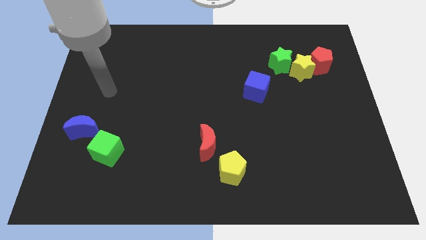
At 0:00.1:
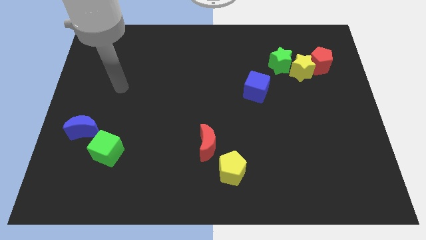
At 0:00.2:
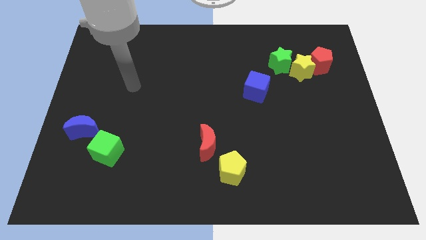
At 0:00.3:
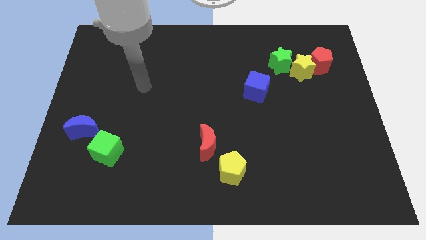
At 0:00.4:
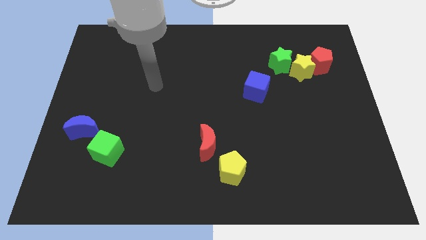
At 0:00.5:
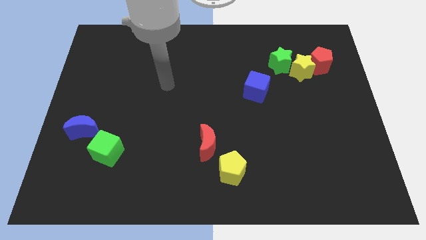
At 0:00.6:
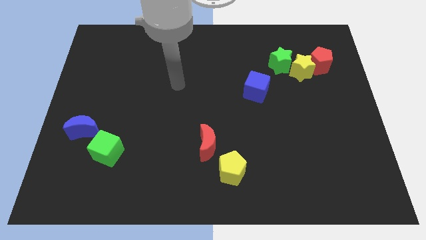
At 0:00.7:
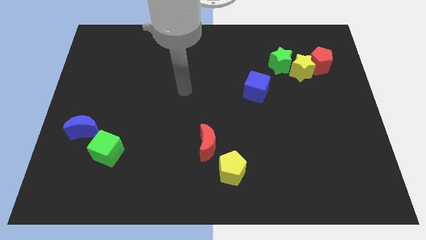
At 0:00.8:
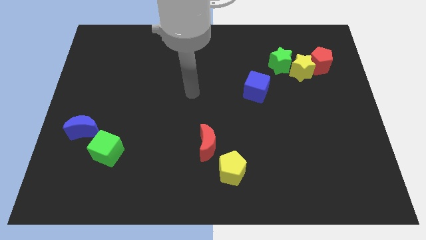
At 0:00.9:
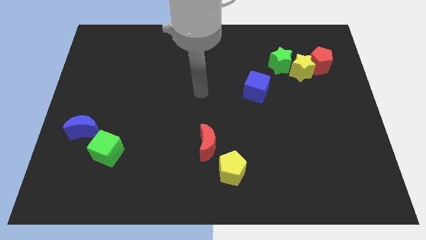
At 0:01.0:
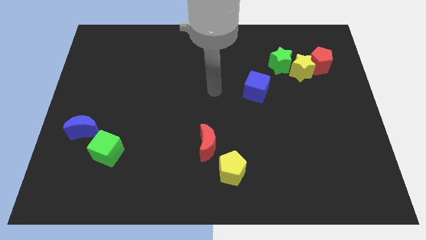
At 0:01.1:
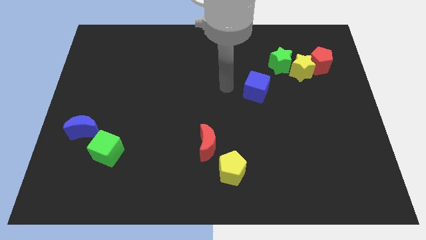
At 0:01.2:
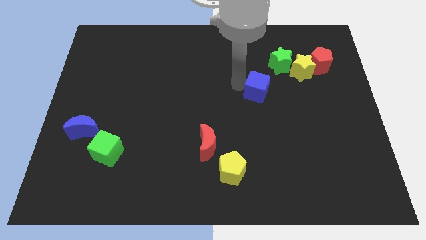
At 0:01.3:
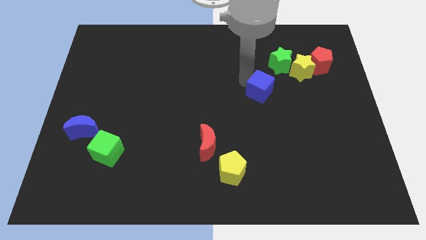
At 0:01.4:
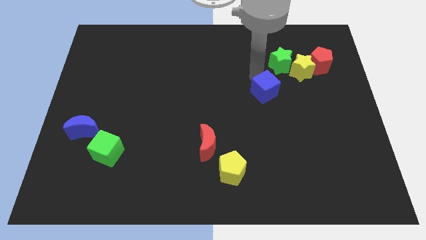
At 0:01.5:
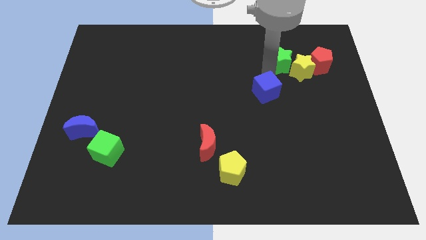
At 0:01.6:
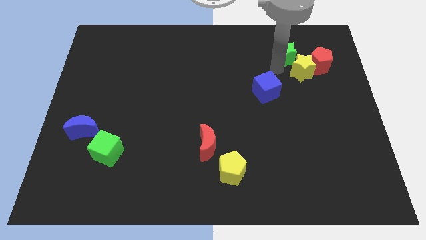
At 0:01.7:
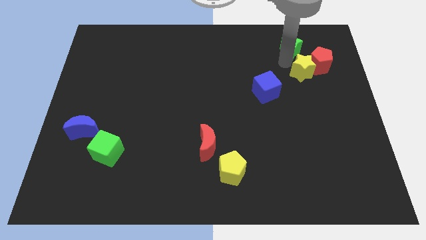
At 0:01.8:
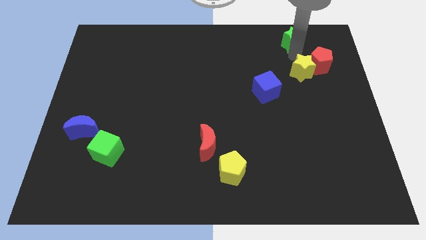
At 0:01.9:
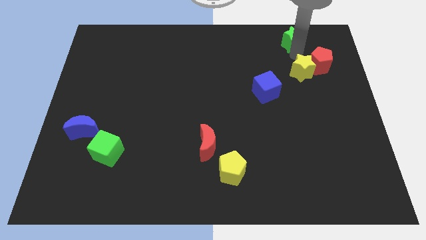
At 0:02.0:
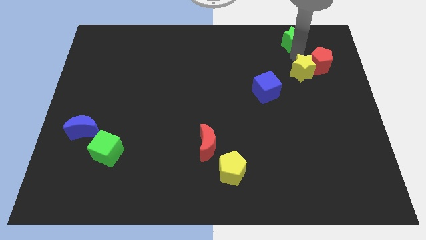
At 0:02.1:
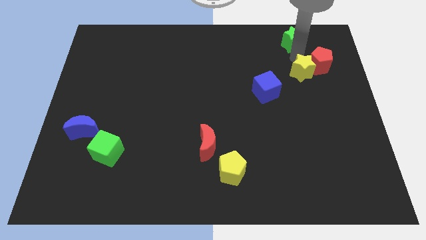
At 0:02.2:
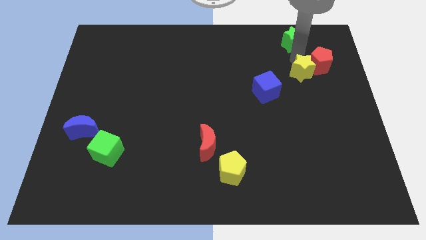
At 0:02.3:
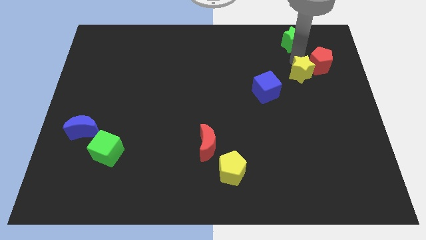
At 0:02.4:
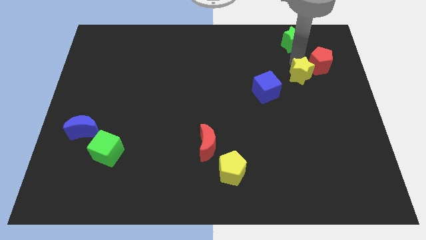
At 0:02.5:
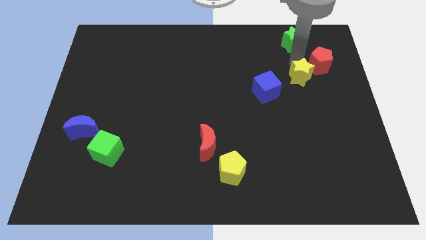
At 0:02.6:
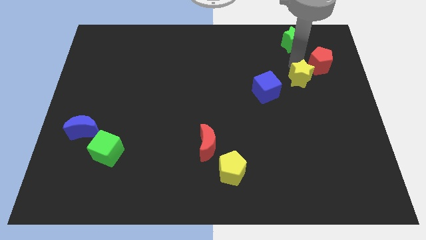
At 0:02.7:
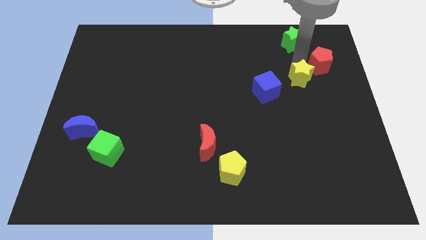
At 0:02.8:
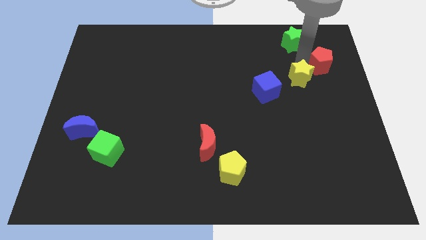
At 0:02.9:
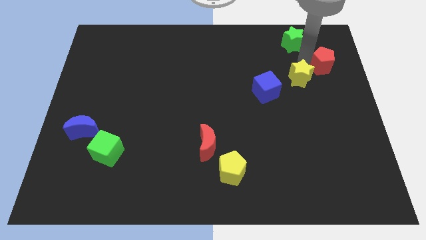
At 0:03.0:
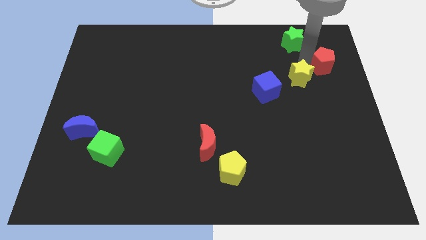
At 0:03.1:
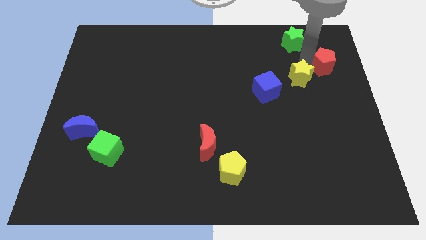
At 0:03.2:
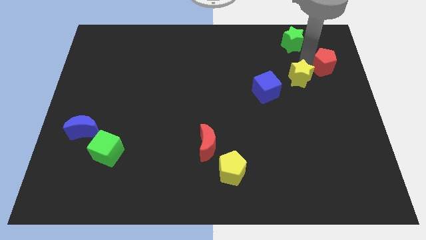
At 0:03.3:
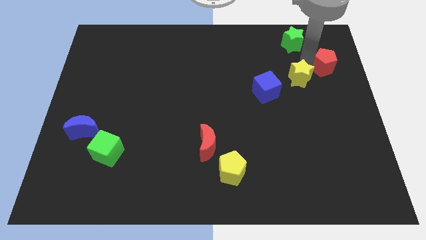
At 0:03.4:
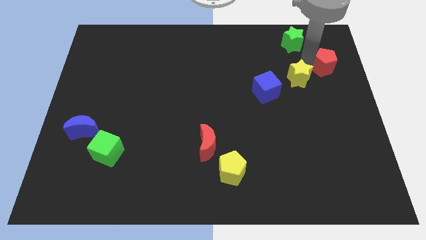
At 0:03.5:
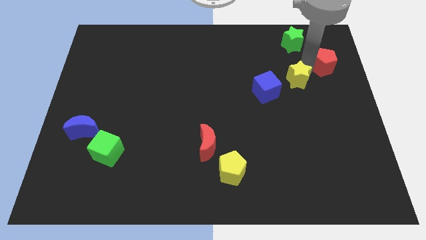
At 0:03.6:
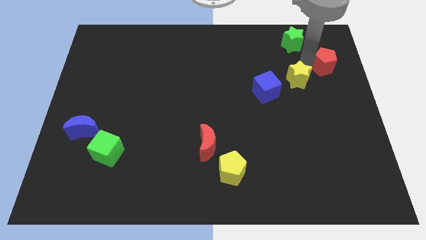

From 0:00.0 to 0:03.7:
separate the yellow star from the red pentagon and green star

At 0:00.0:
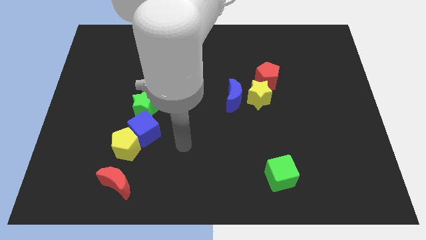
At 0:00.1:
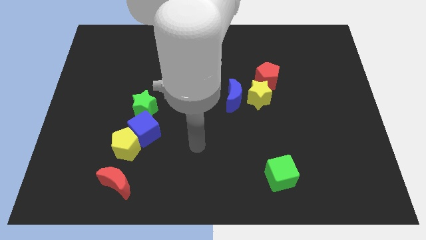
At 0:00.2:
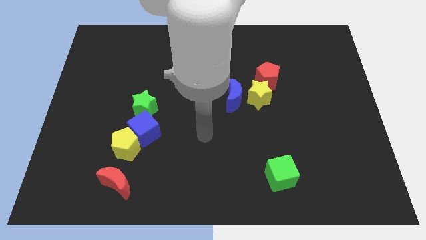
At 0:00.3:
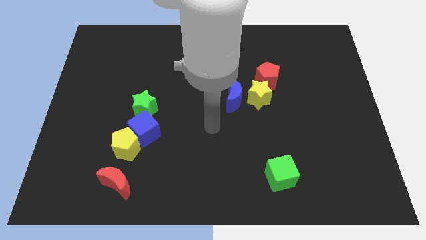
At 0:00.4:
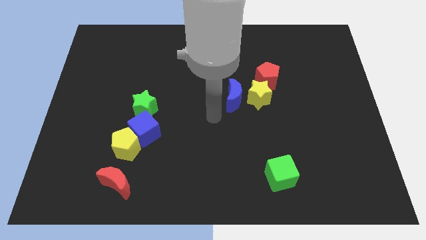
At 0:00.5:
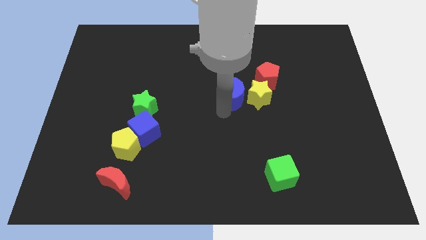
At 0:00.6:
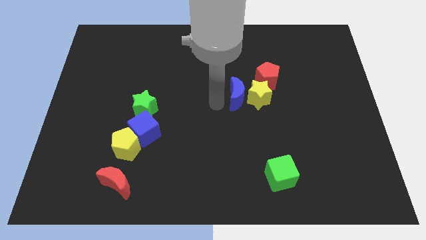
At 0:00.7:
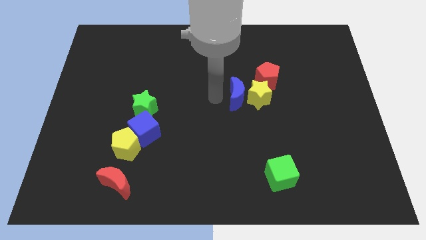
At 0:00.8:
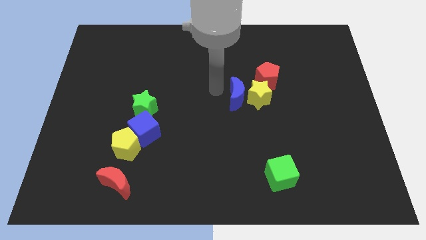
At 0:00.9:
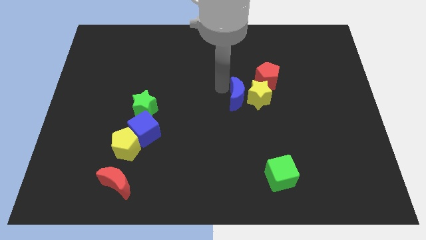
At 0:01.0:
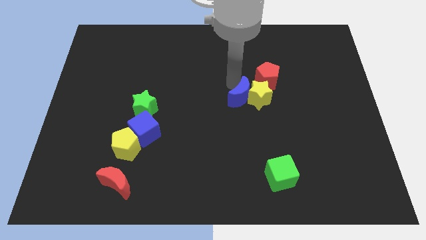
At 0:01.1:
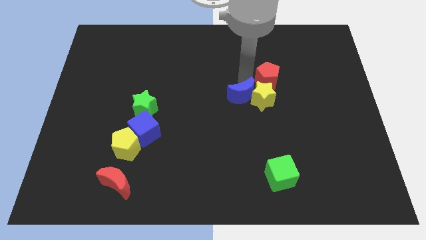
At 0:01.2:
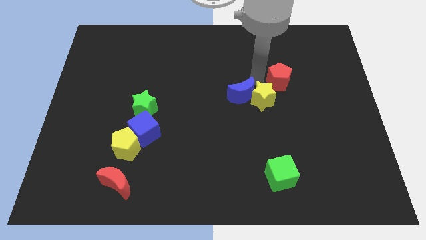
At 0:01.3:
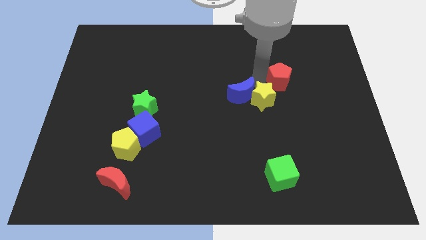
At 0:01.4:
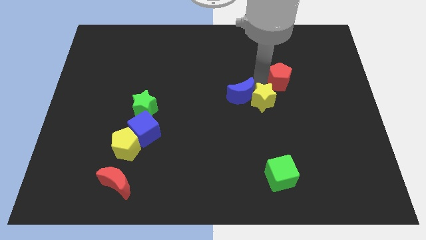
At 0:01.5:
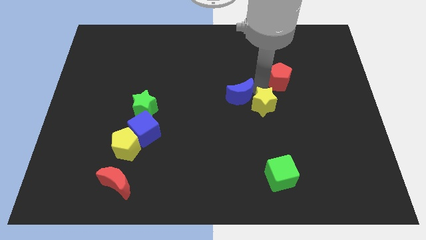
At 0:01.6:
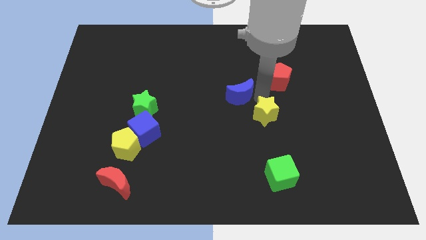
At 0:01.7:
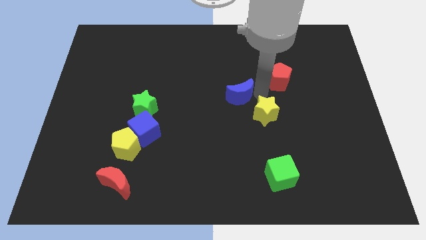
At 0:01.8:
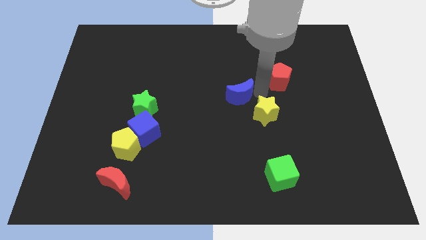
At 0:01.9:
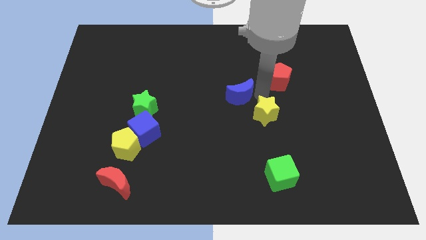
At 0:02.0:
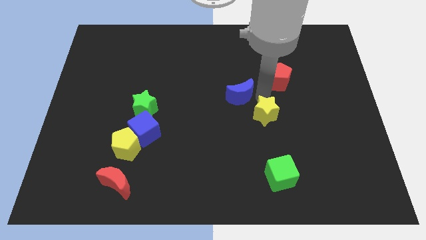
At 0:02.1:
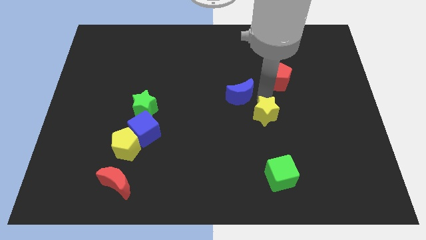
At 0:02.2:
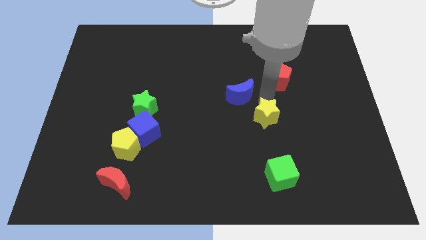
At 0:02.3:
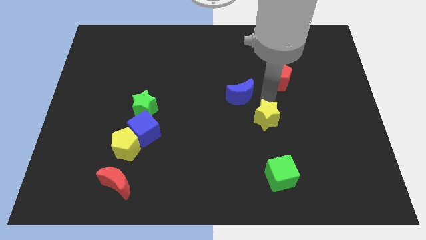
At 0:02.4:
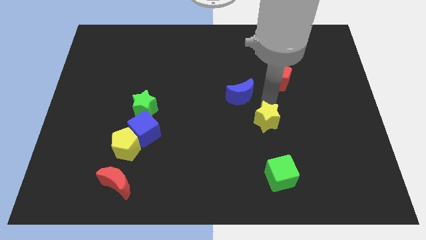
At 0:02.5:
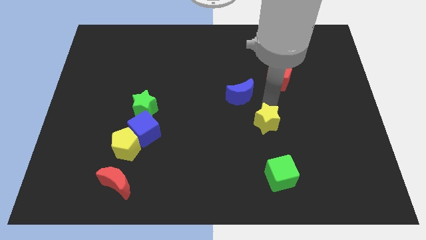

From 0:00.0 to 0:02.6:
separate the yellow star from the blue moon and red pentagon

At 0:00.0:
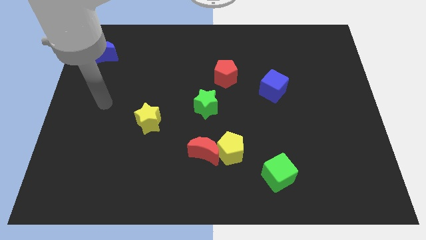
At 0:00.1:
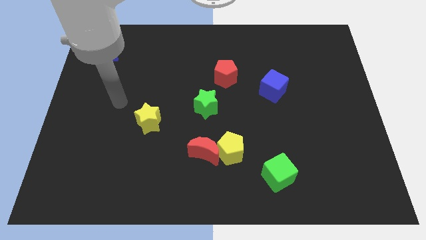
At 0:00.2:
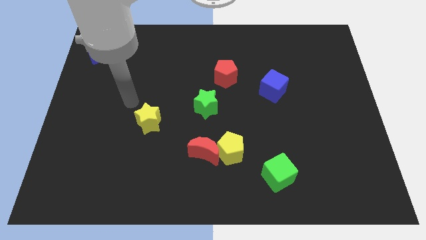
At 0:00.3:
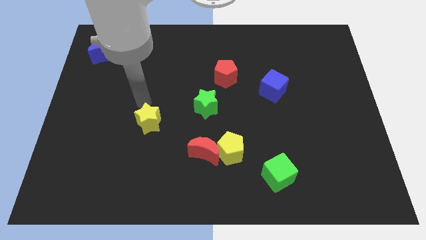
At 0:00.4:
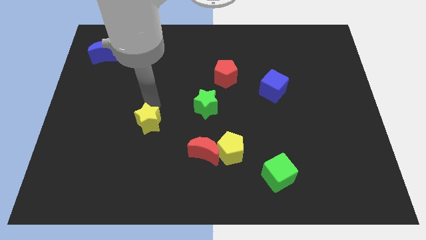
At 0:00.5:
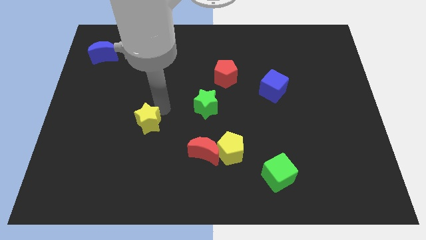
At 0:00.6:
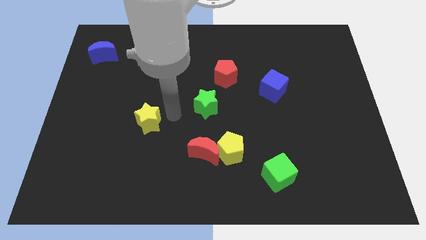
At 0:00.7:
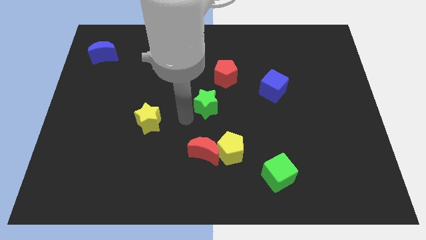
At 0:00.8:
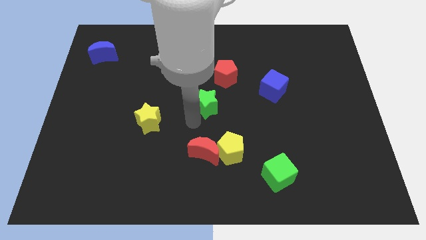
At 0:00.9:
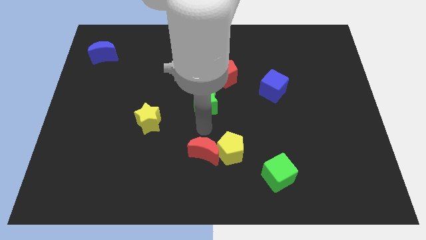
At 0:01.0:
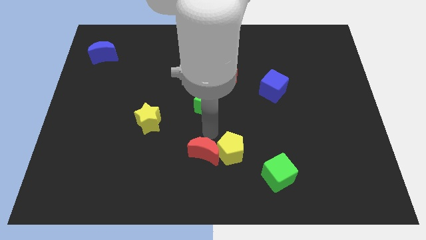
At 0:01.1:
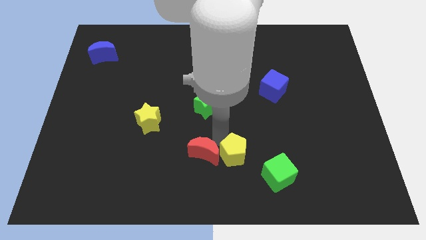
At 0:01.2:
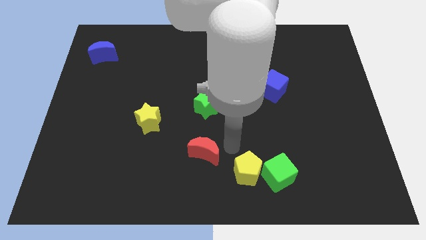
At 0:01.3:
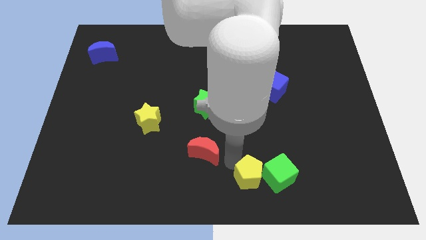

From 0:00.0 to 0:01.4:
move the red moon away from the yellow pentagon

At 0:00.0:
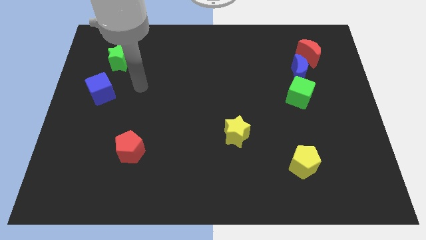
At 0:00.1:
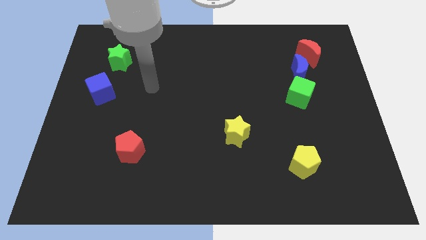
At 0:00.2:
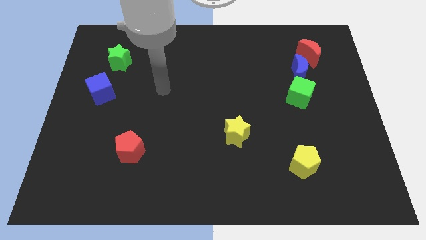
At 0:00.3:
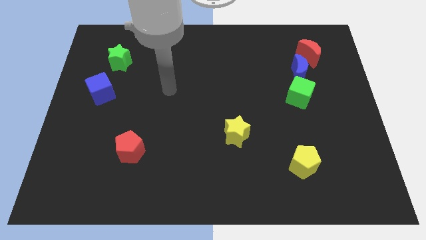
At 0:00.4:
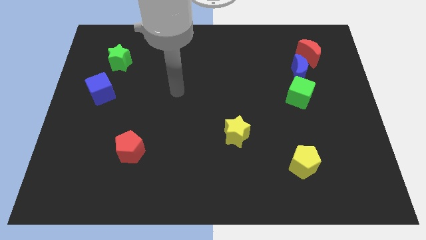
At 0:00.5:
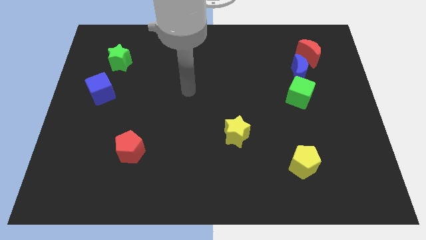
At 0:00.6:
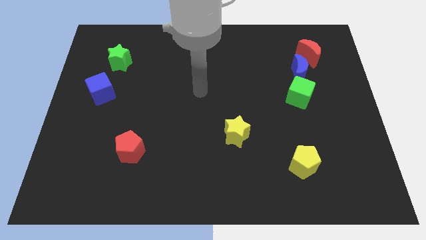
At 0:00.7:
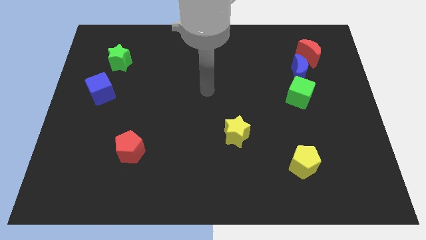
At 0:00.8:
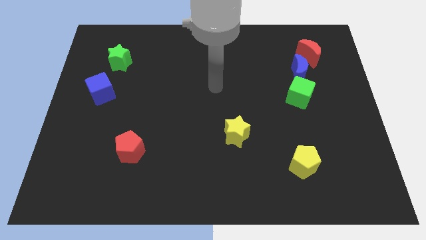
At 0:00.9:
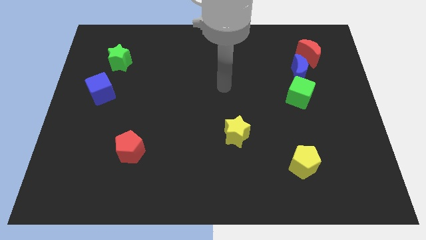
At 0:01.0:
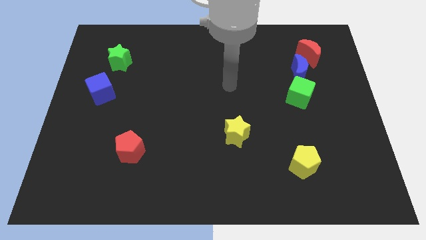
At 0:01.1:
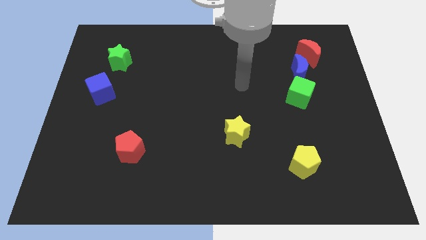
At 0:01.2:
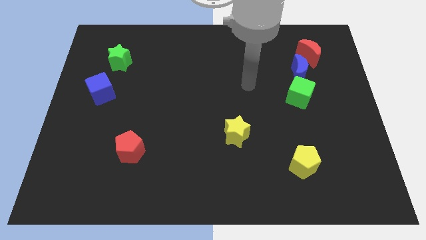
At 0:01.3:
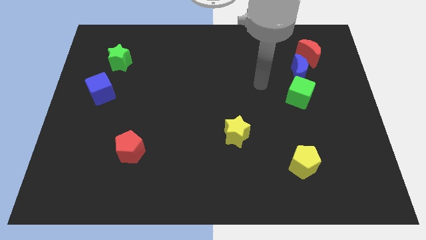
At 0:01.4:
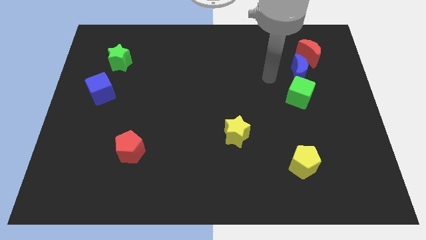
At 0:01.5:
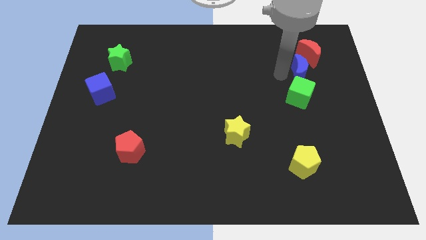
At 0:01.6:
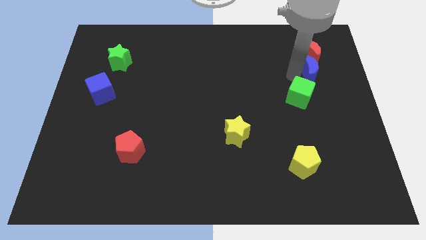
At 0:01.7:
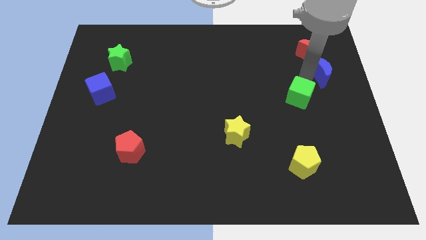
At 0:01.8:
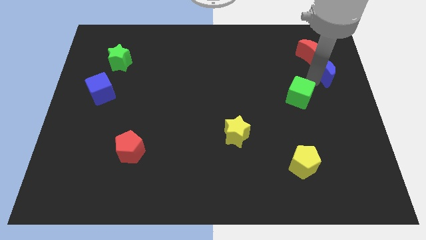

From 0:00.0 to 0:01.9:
pull the green cube apart from the blue moon
